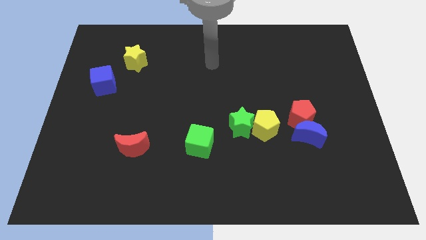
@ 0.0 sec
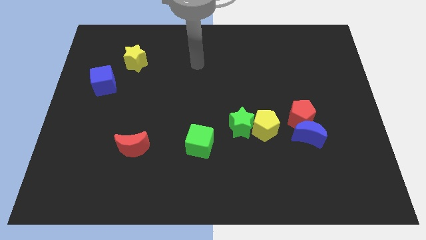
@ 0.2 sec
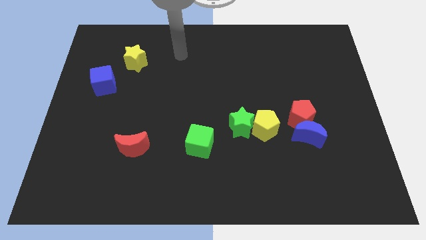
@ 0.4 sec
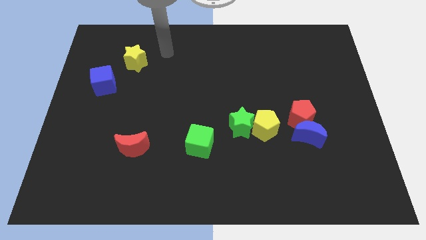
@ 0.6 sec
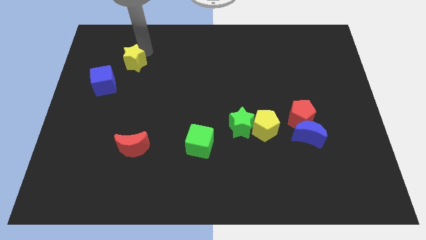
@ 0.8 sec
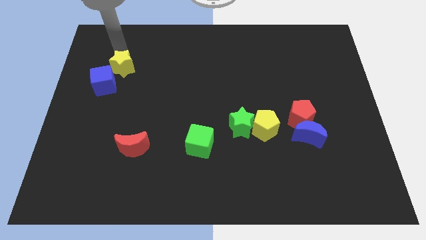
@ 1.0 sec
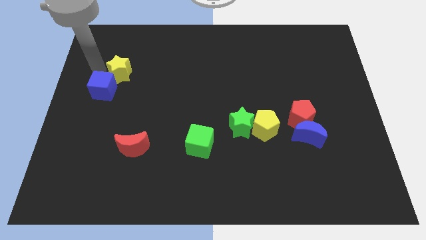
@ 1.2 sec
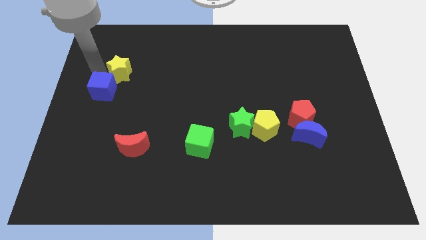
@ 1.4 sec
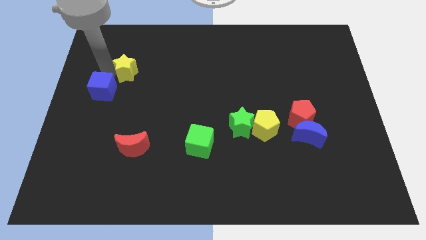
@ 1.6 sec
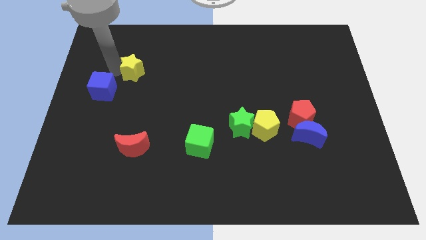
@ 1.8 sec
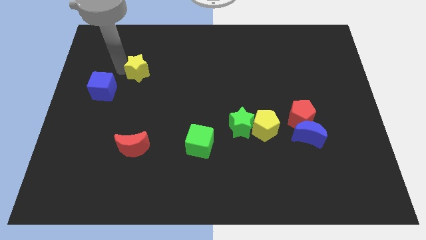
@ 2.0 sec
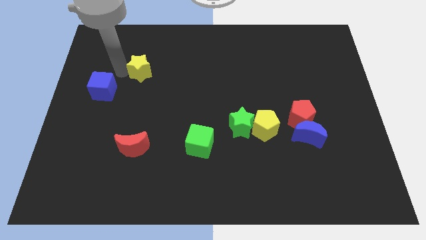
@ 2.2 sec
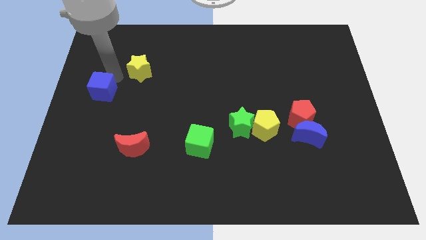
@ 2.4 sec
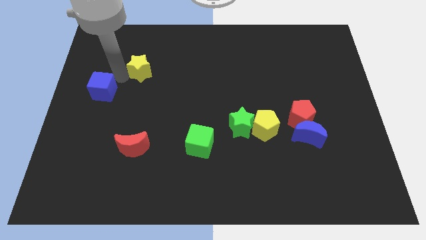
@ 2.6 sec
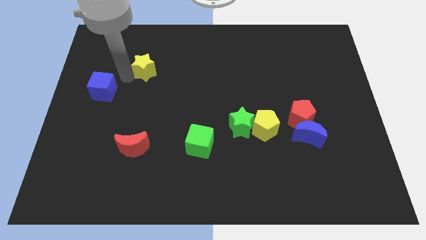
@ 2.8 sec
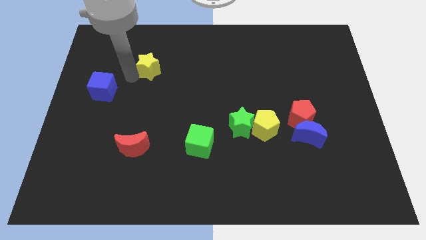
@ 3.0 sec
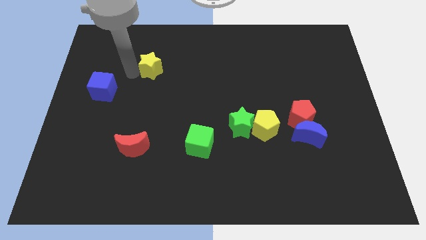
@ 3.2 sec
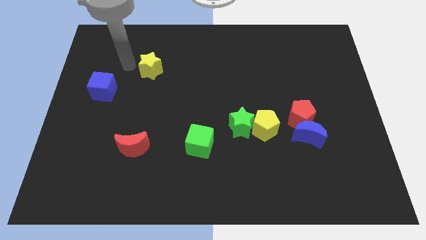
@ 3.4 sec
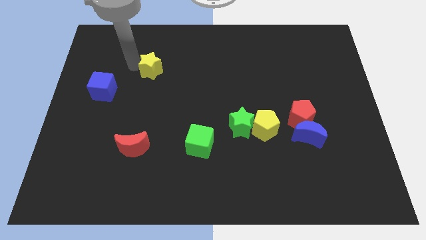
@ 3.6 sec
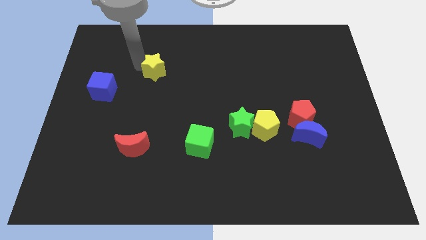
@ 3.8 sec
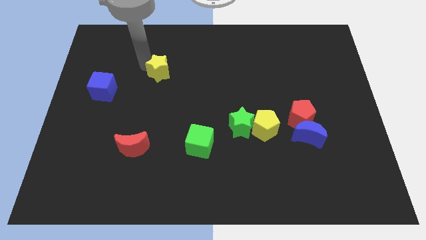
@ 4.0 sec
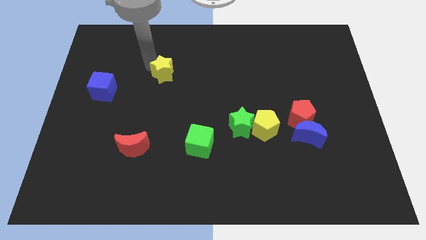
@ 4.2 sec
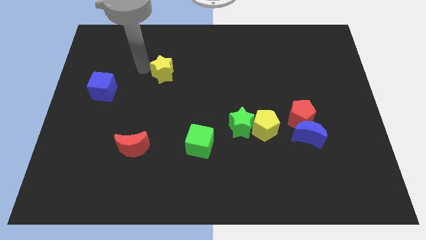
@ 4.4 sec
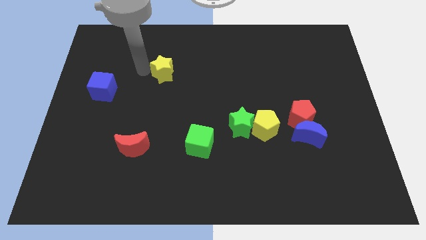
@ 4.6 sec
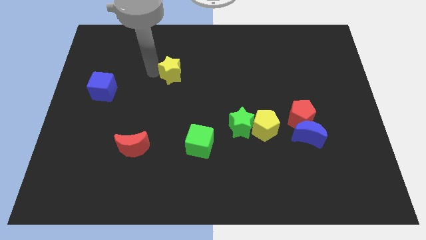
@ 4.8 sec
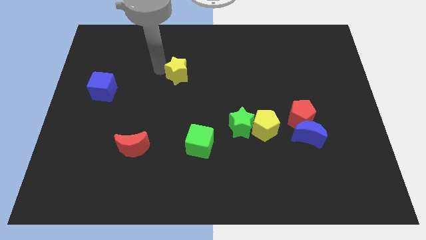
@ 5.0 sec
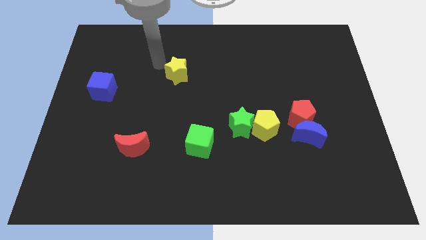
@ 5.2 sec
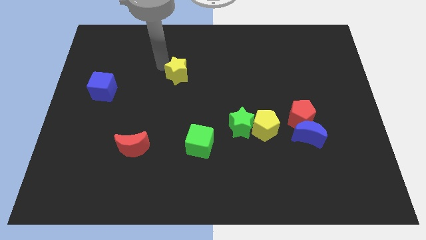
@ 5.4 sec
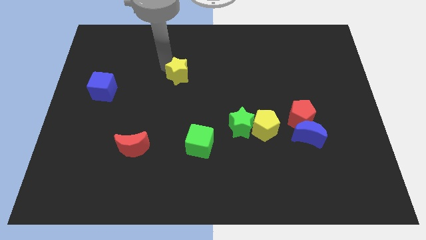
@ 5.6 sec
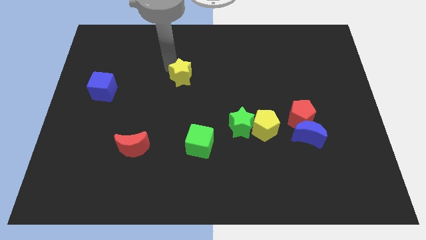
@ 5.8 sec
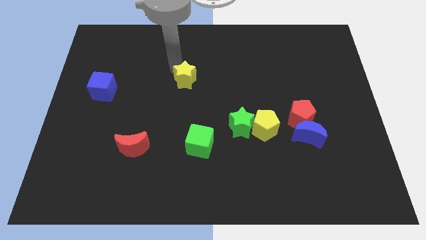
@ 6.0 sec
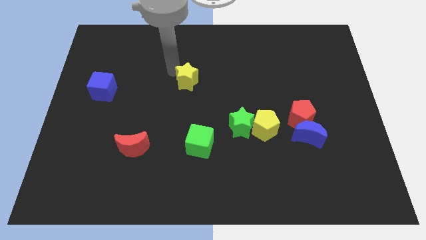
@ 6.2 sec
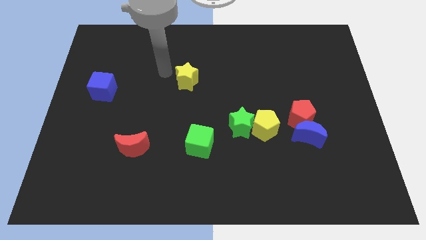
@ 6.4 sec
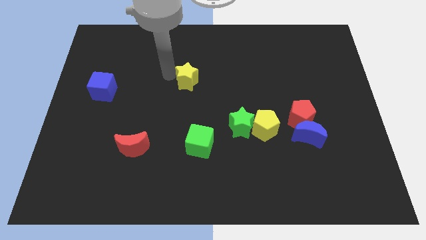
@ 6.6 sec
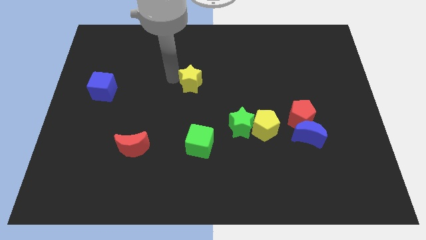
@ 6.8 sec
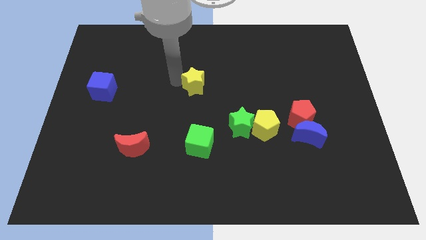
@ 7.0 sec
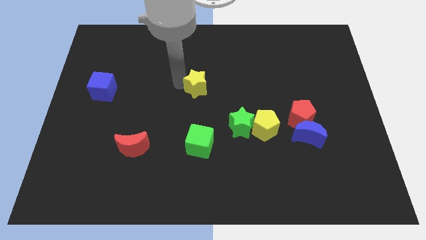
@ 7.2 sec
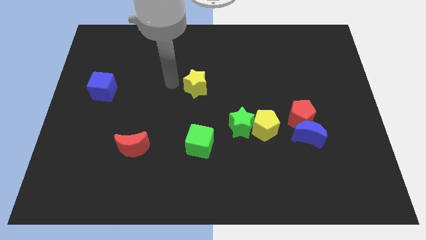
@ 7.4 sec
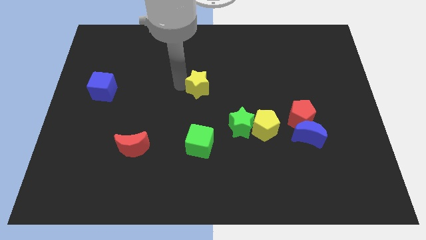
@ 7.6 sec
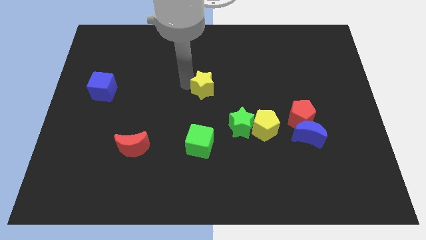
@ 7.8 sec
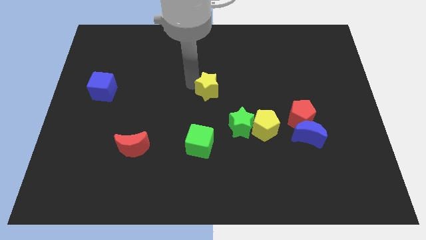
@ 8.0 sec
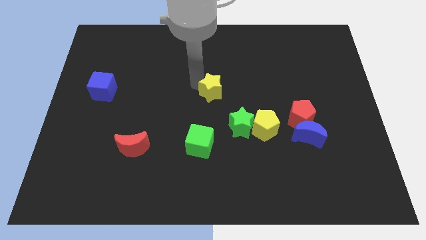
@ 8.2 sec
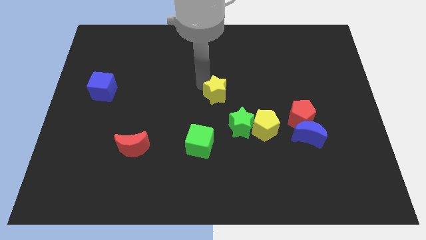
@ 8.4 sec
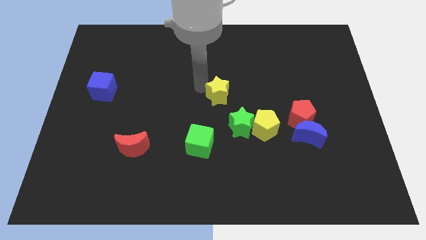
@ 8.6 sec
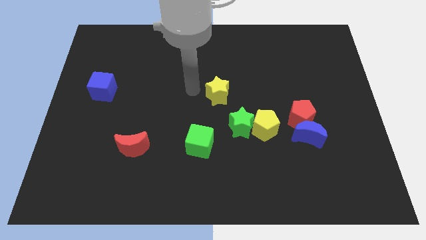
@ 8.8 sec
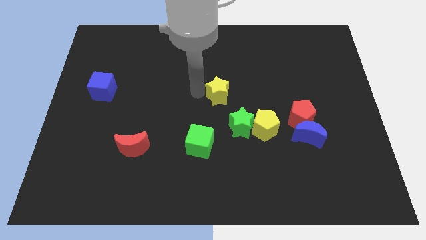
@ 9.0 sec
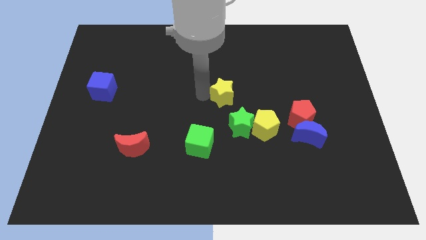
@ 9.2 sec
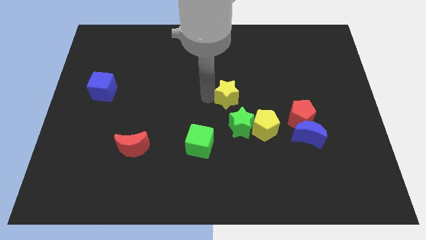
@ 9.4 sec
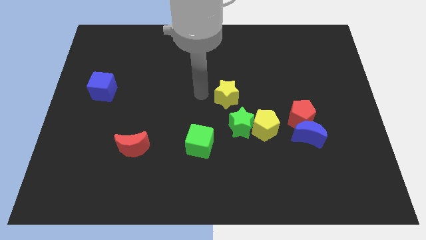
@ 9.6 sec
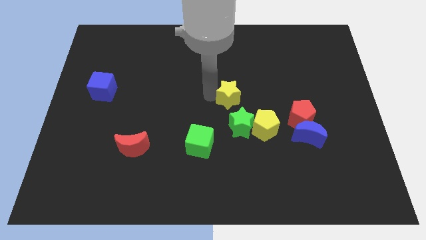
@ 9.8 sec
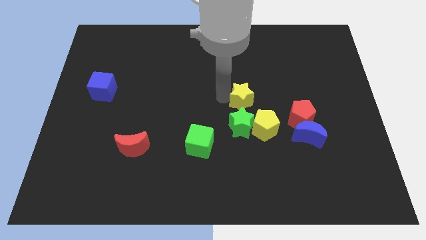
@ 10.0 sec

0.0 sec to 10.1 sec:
move the yellow star to the top right side of the green star

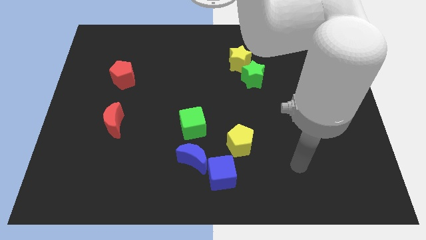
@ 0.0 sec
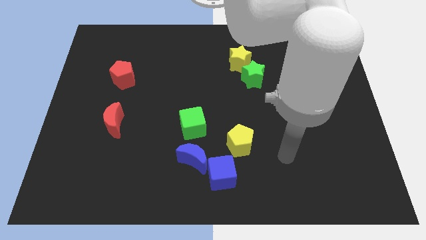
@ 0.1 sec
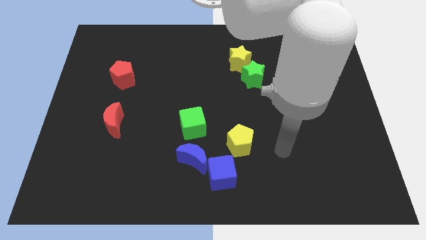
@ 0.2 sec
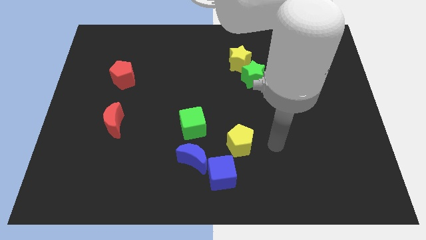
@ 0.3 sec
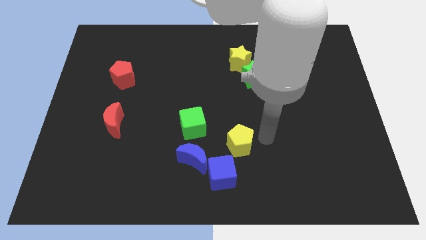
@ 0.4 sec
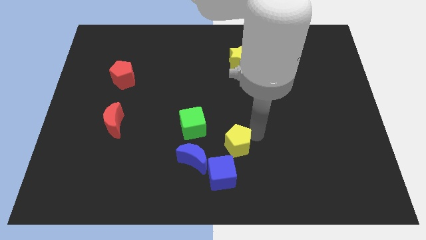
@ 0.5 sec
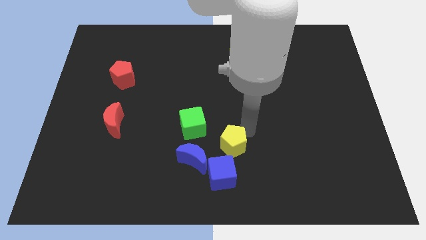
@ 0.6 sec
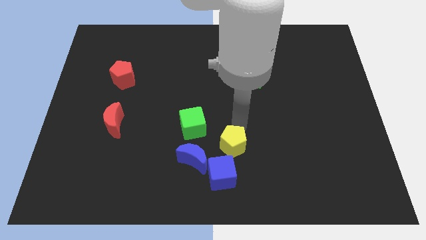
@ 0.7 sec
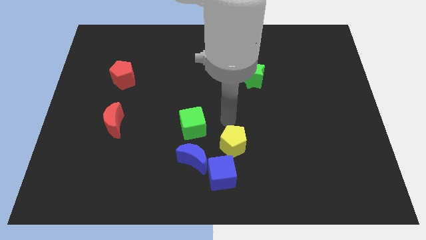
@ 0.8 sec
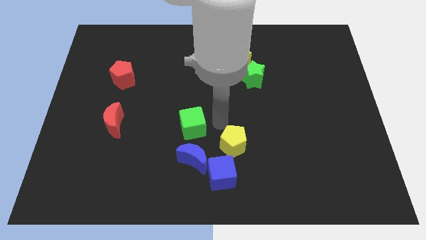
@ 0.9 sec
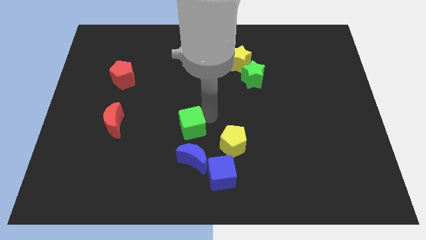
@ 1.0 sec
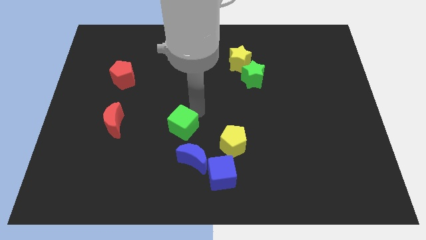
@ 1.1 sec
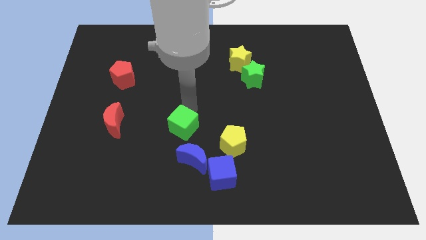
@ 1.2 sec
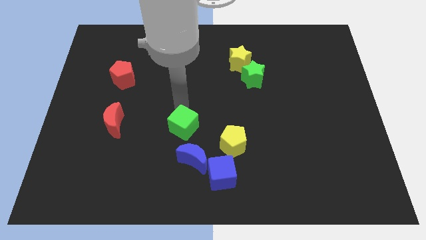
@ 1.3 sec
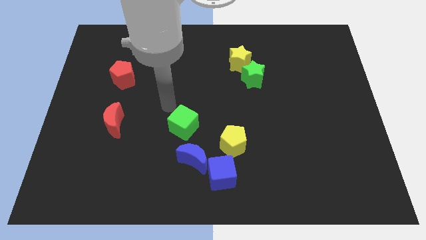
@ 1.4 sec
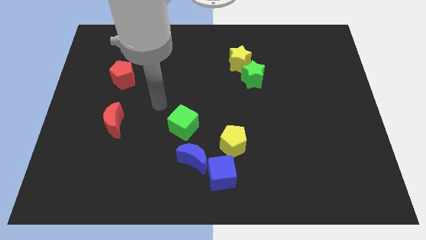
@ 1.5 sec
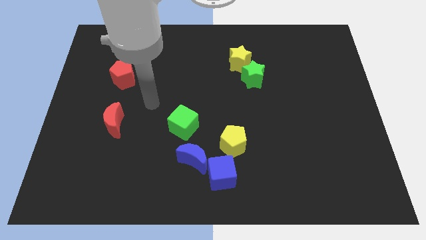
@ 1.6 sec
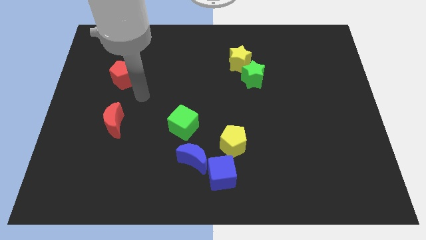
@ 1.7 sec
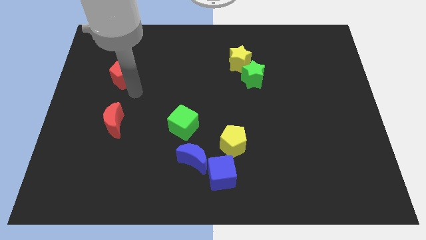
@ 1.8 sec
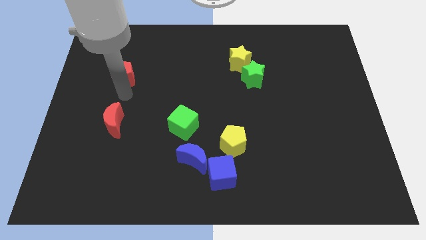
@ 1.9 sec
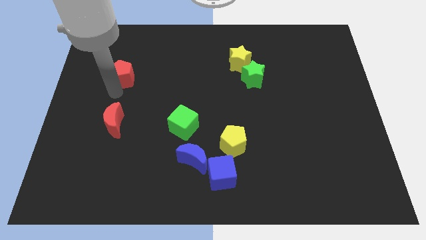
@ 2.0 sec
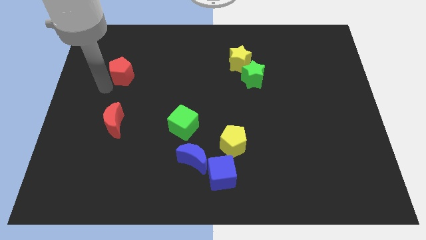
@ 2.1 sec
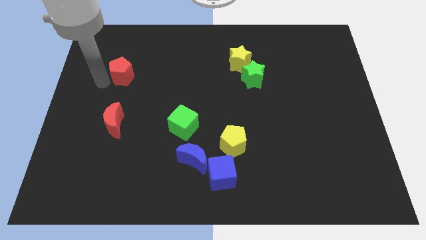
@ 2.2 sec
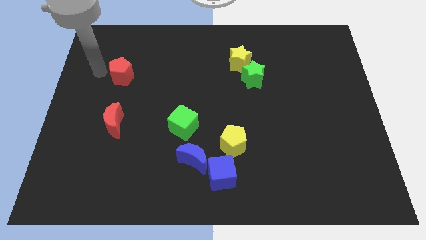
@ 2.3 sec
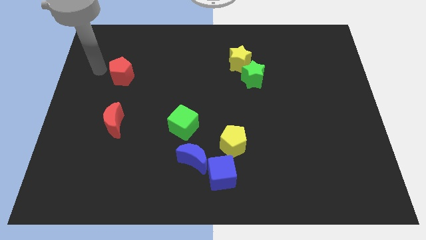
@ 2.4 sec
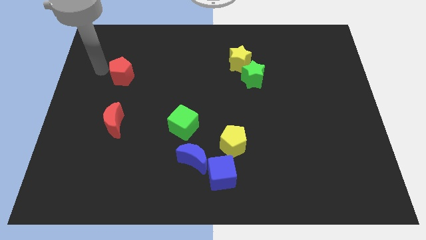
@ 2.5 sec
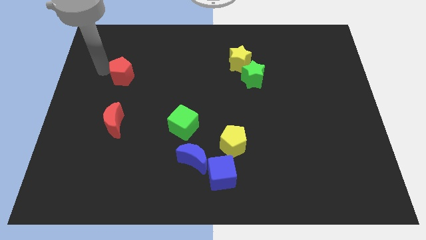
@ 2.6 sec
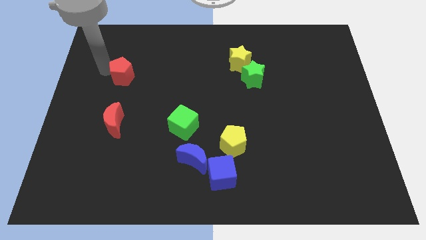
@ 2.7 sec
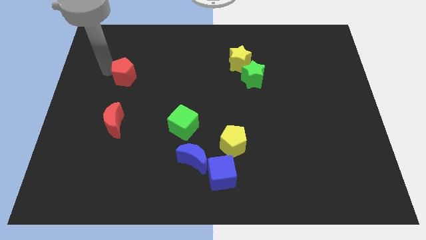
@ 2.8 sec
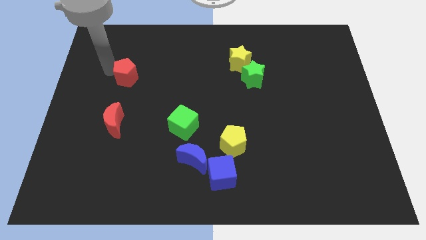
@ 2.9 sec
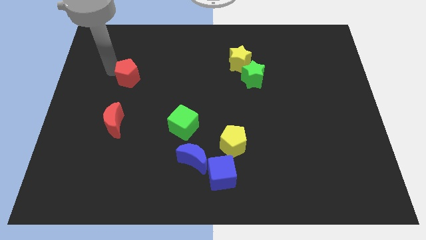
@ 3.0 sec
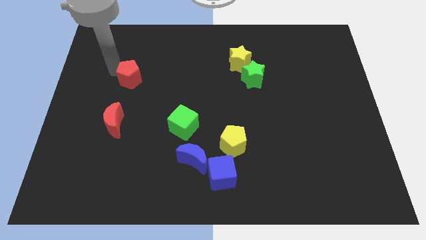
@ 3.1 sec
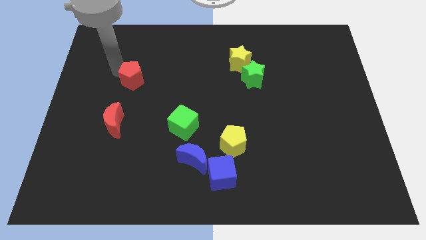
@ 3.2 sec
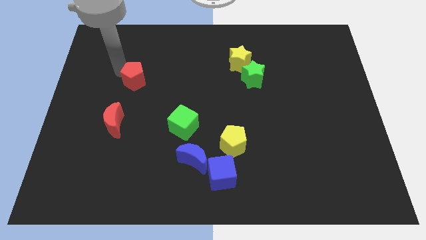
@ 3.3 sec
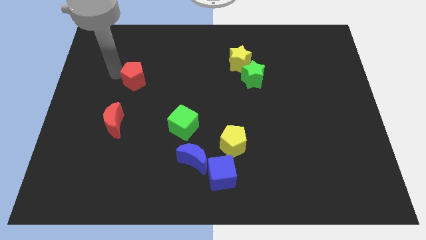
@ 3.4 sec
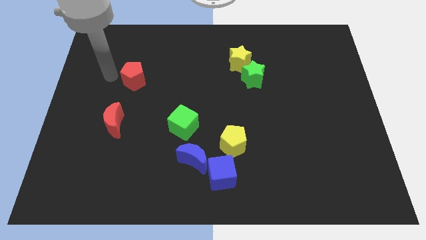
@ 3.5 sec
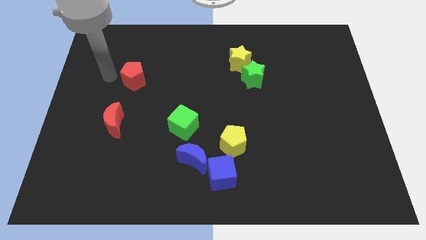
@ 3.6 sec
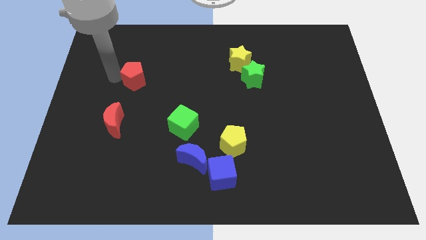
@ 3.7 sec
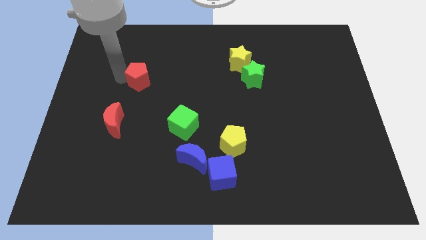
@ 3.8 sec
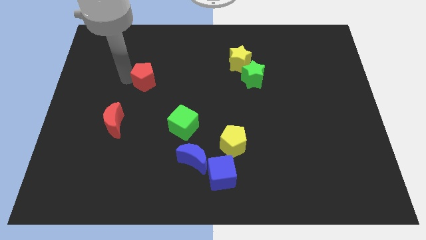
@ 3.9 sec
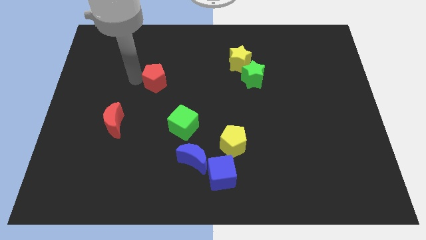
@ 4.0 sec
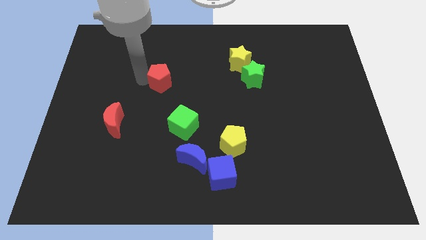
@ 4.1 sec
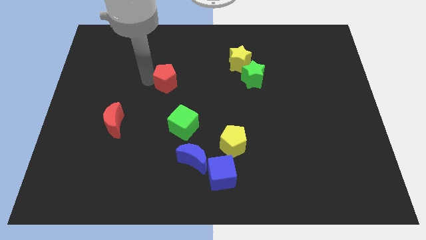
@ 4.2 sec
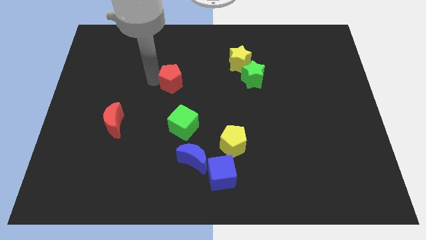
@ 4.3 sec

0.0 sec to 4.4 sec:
move the red pentagon above the green cube
